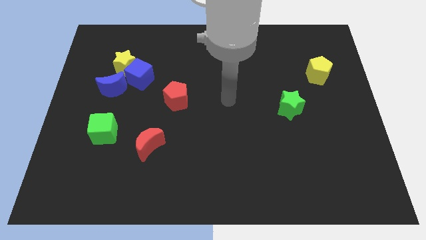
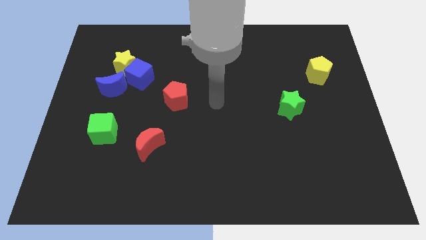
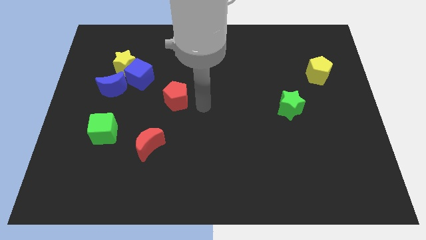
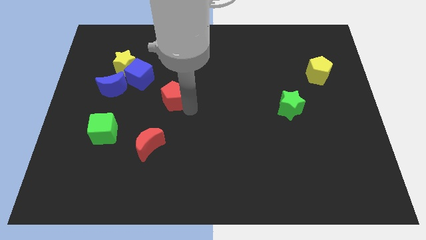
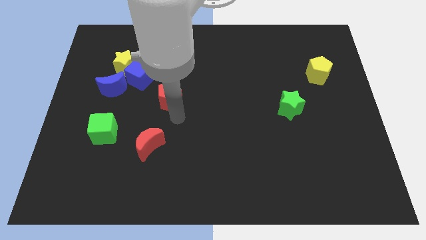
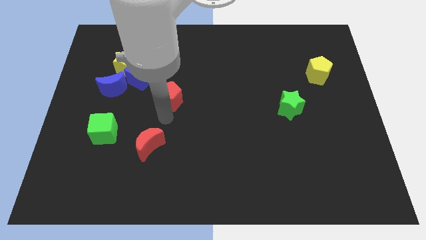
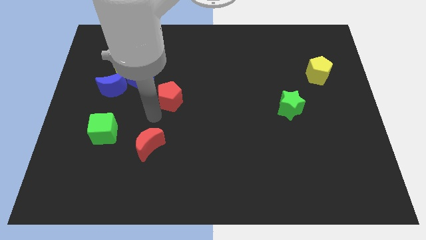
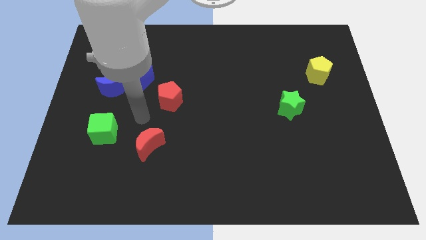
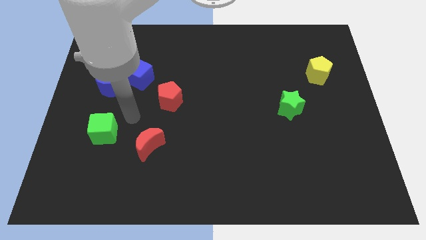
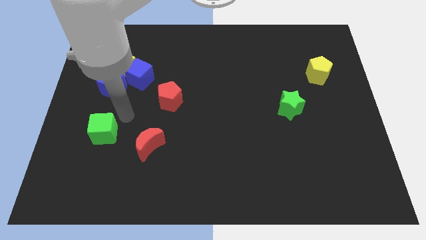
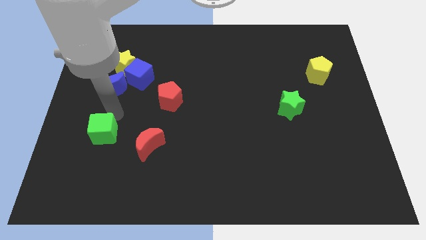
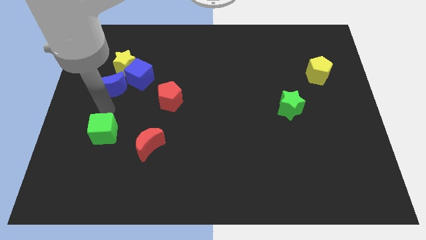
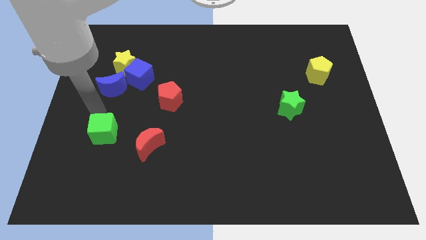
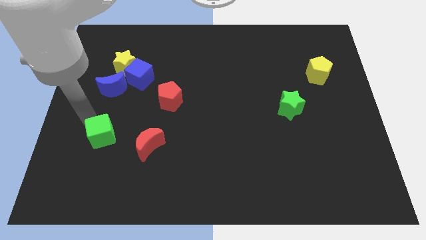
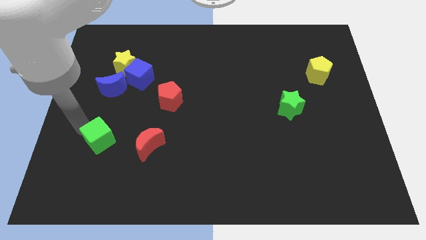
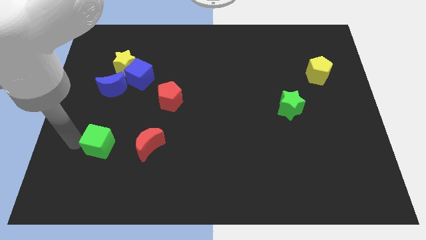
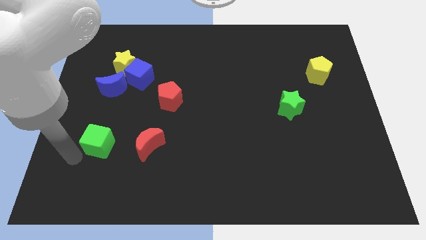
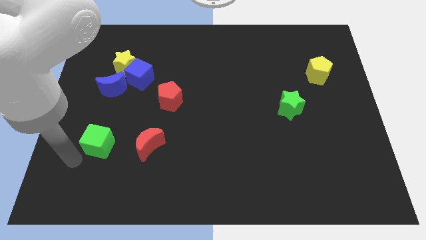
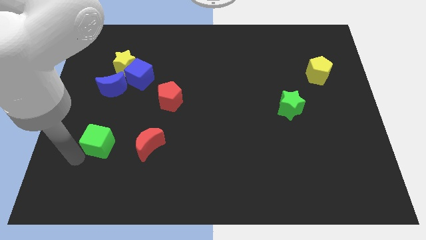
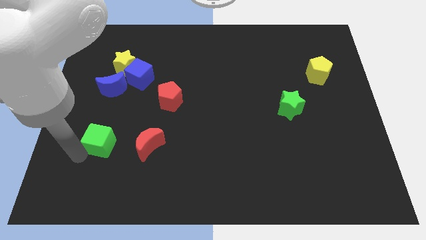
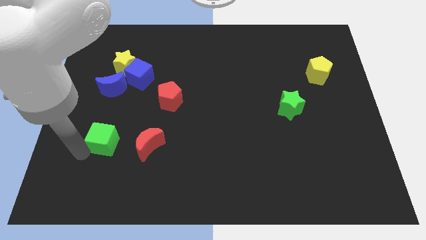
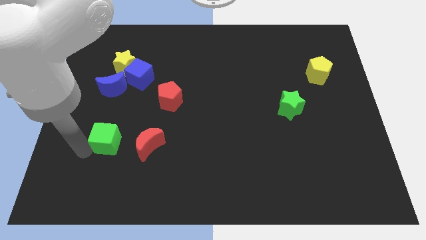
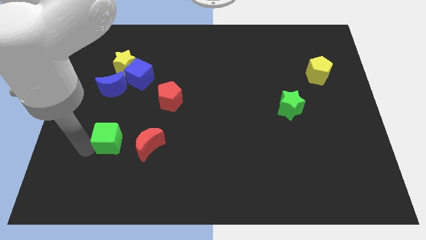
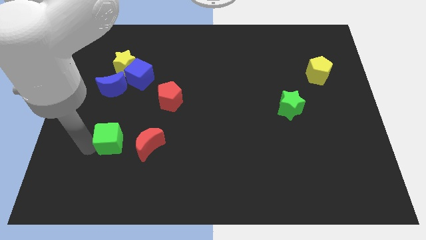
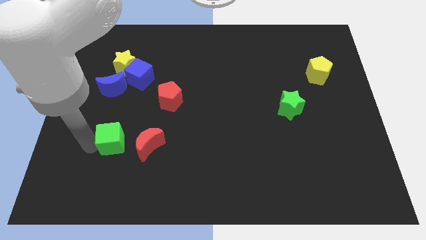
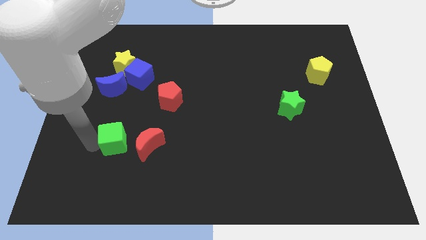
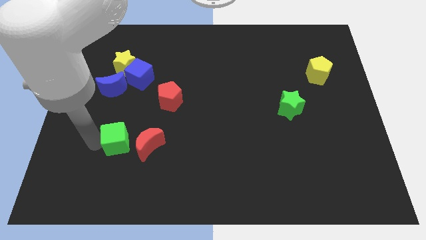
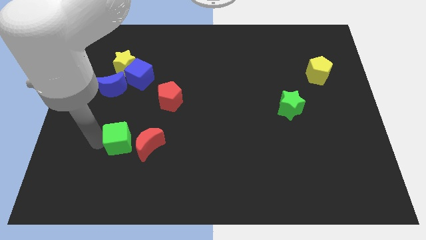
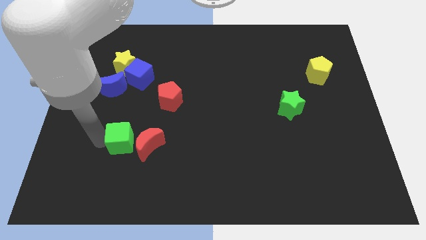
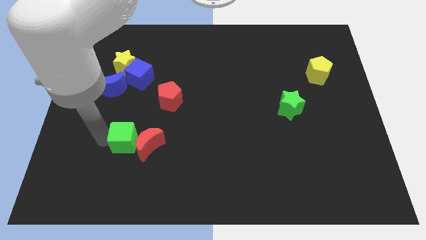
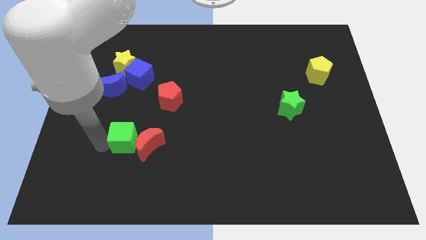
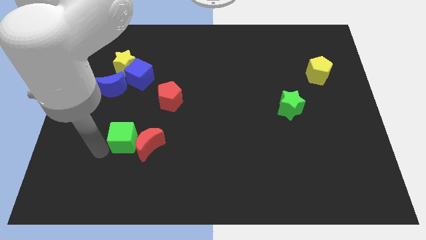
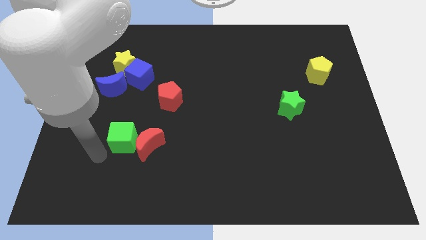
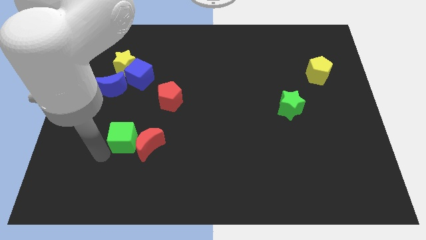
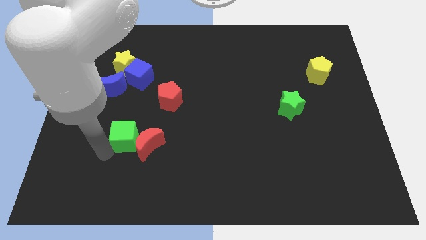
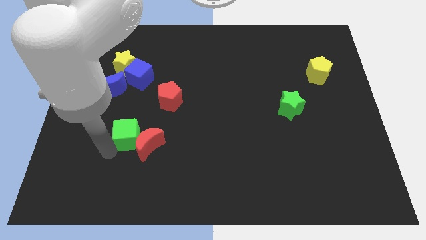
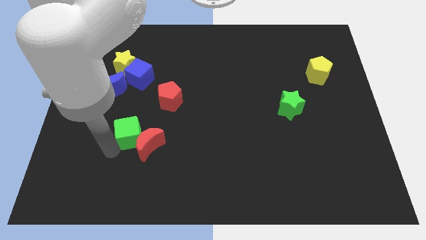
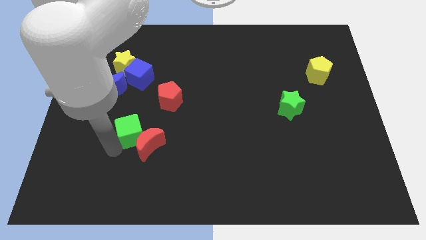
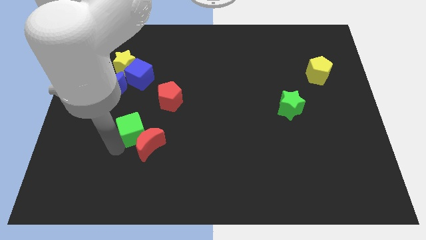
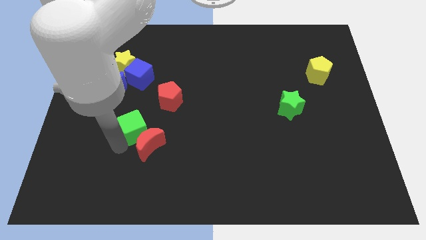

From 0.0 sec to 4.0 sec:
slide the green cube slightly right

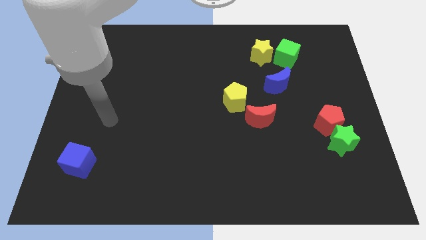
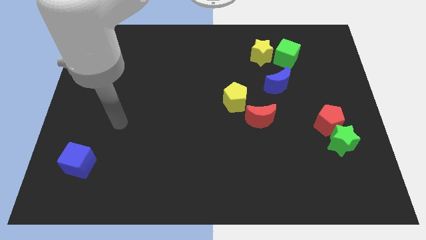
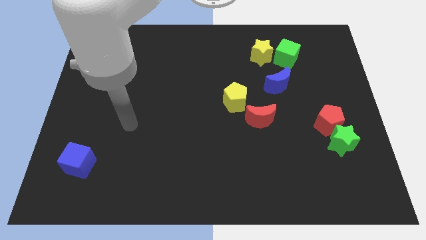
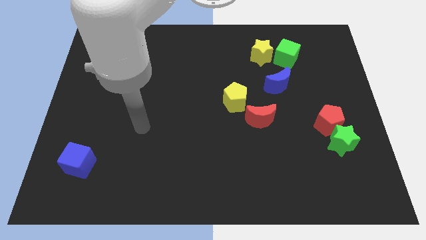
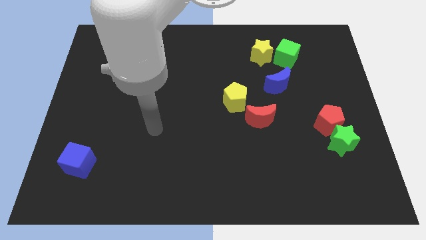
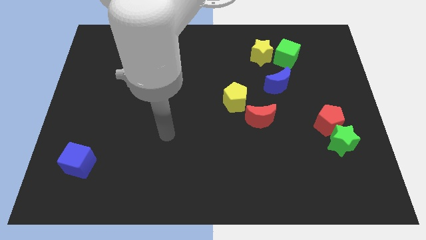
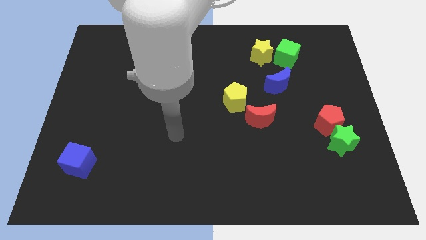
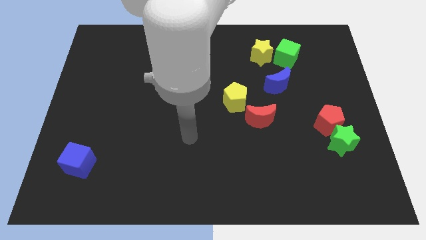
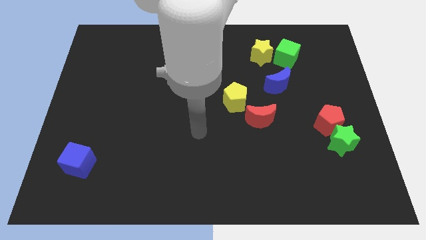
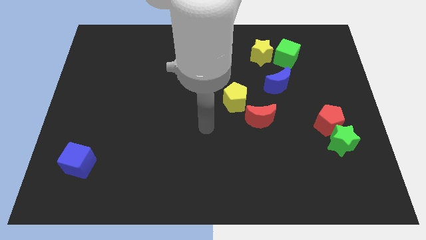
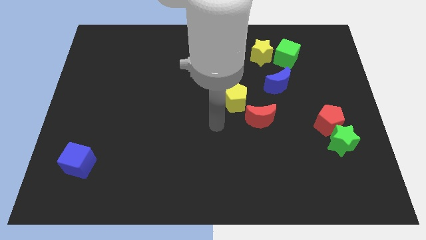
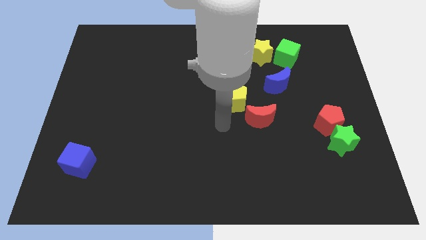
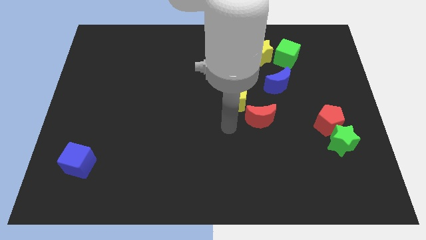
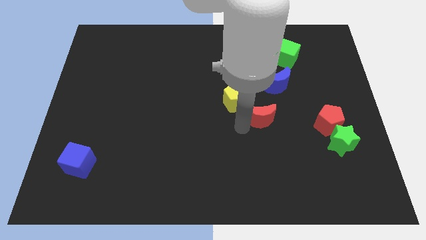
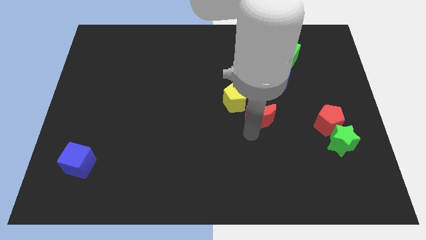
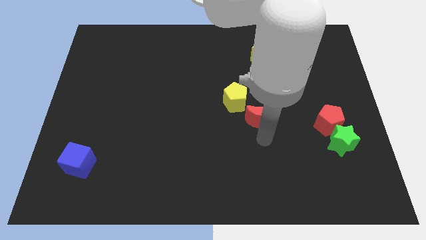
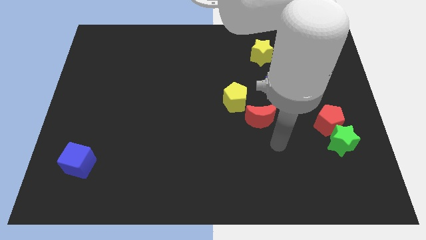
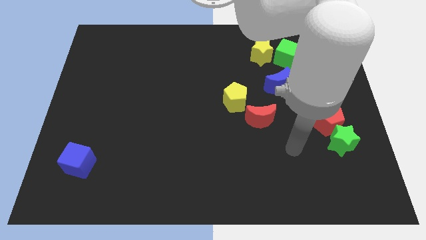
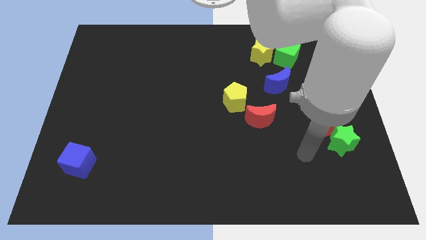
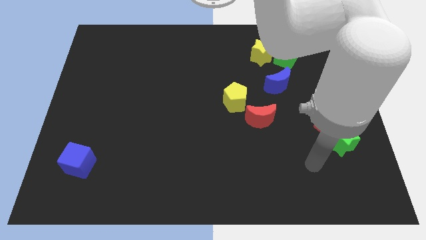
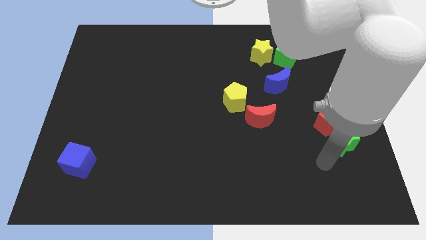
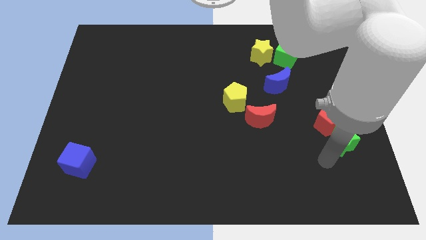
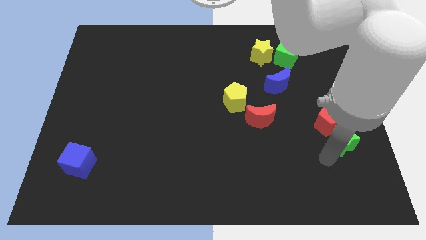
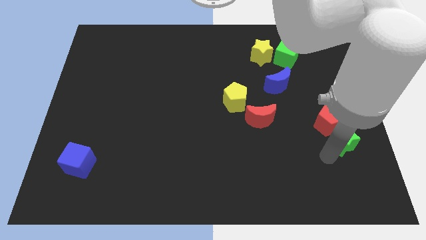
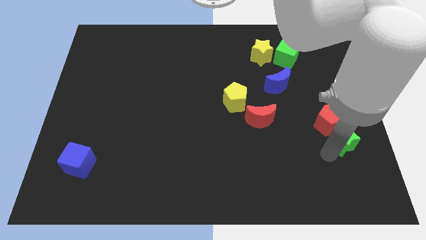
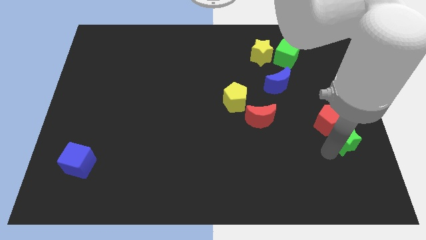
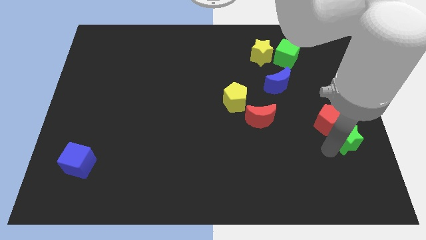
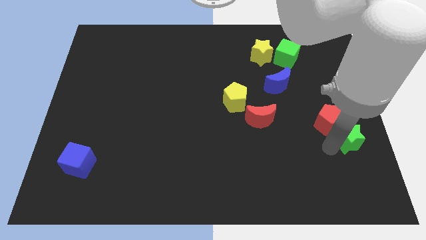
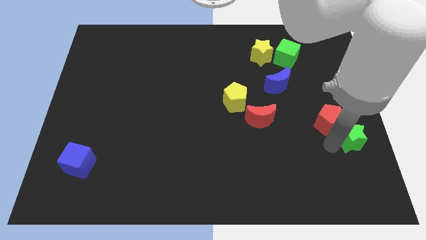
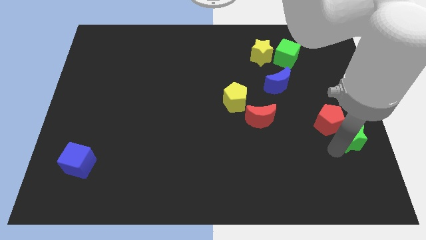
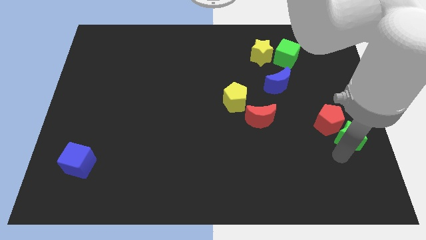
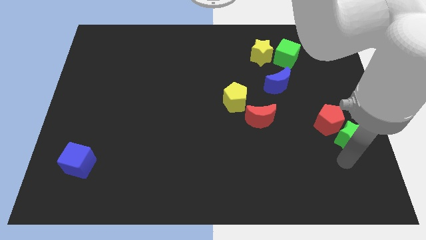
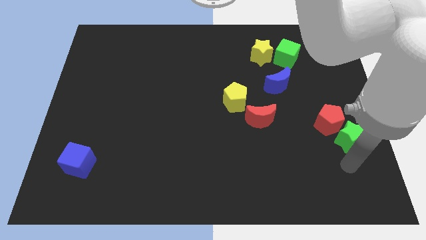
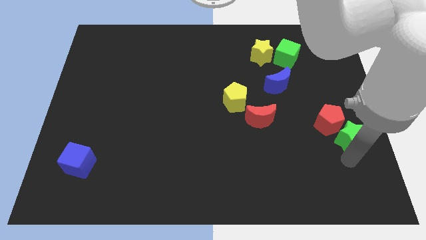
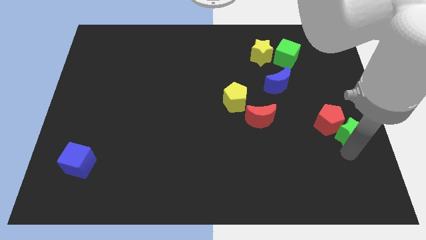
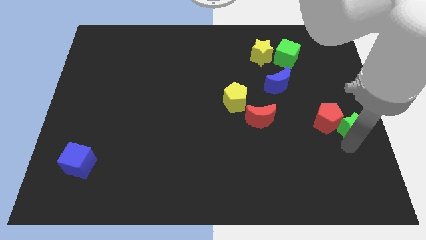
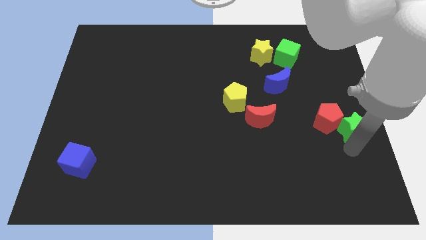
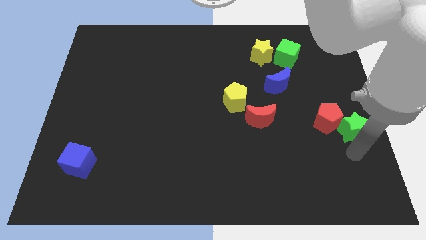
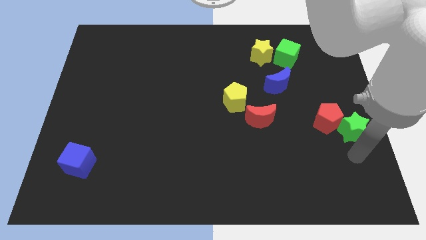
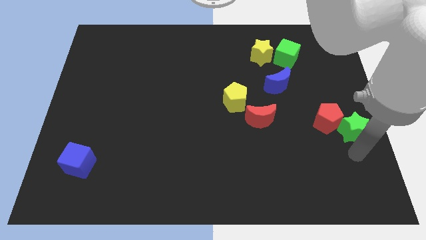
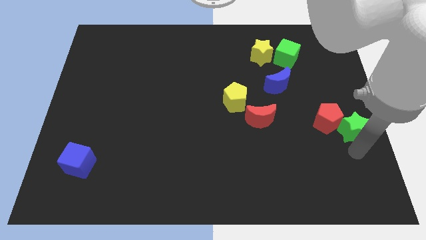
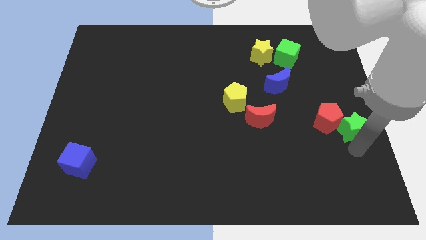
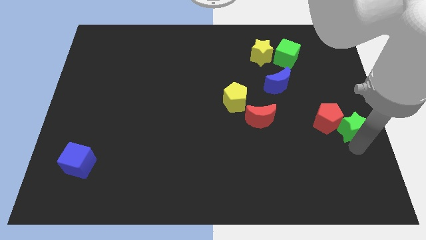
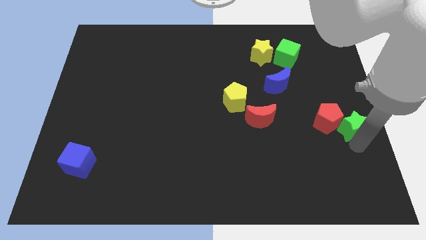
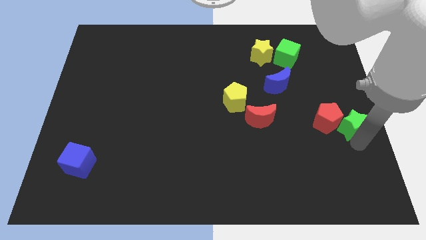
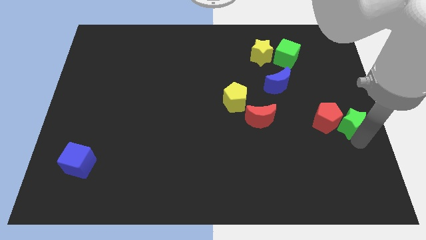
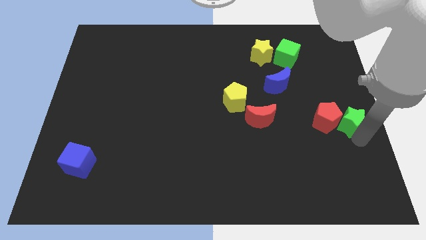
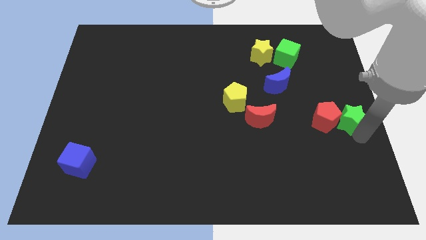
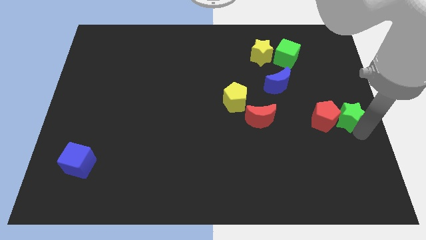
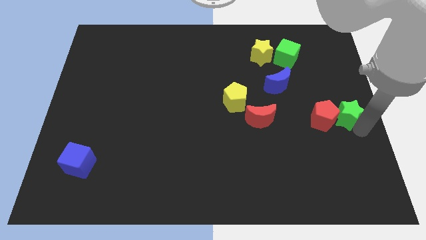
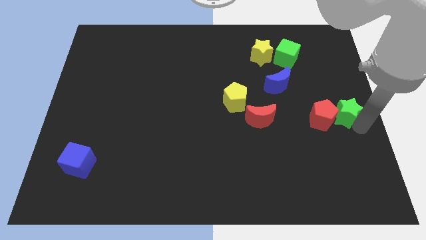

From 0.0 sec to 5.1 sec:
slightly slide the green star upwards
